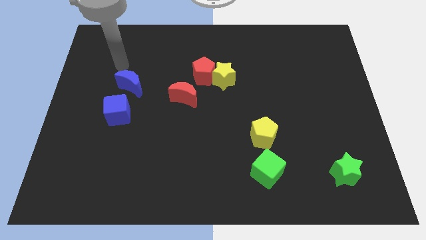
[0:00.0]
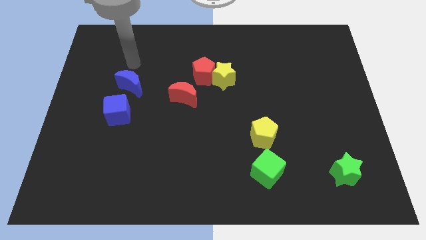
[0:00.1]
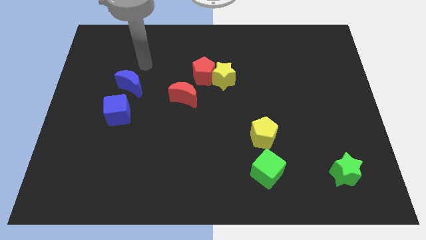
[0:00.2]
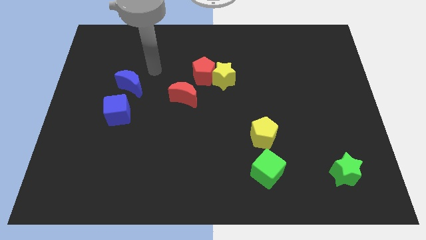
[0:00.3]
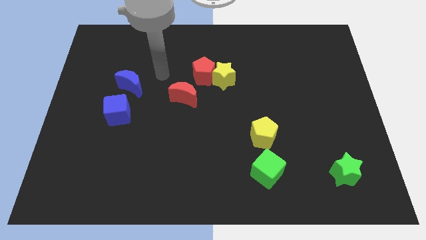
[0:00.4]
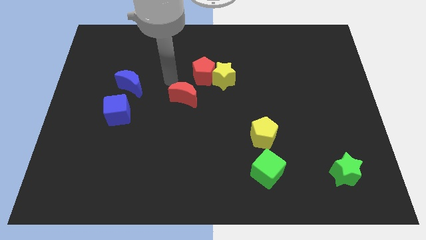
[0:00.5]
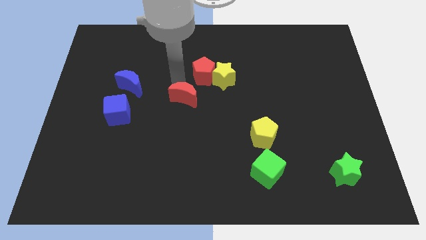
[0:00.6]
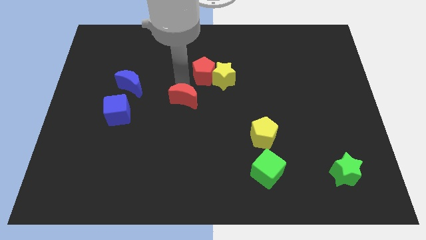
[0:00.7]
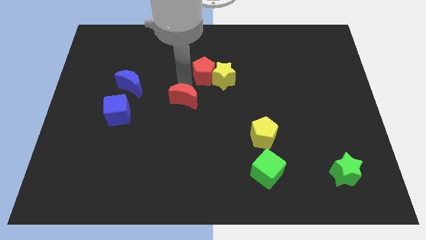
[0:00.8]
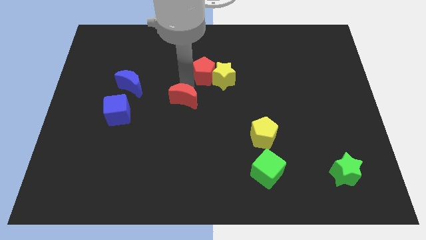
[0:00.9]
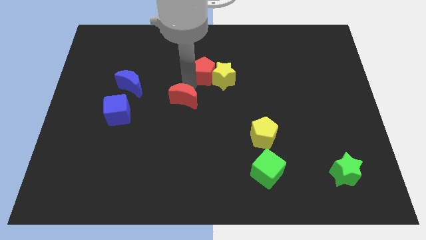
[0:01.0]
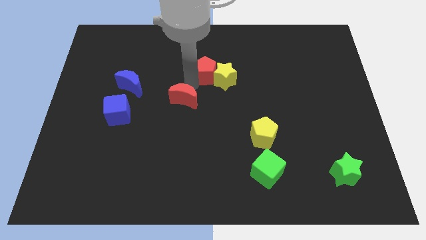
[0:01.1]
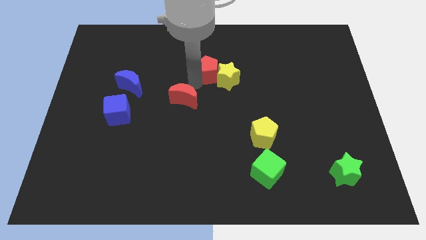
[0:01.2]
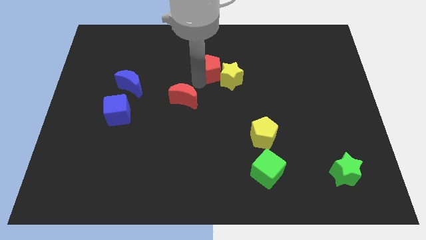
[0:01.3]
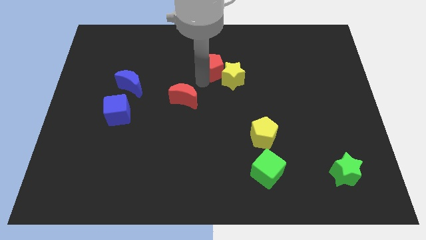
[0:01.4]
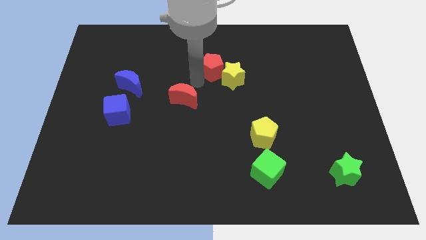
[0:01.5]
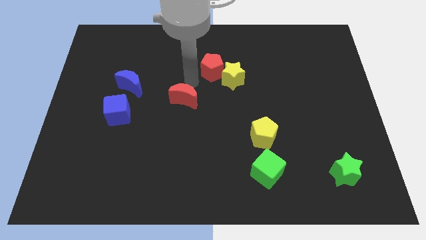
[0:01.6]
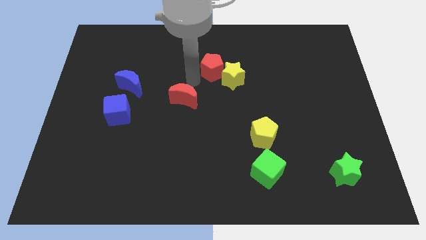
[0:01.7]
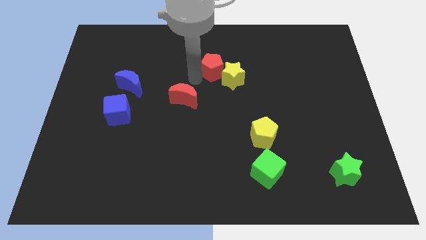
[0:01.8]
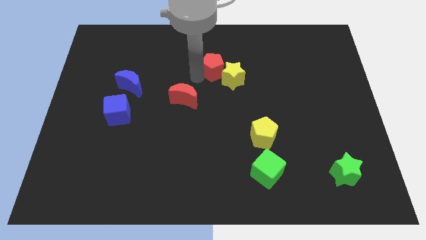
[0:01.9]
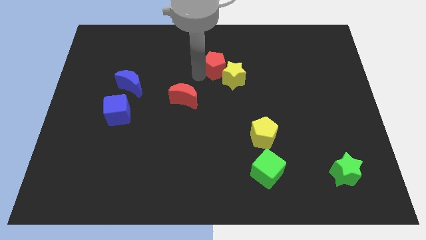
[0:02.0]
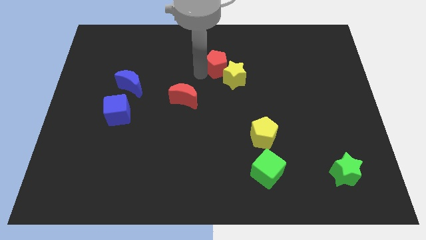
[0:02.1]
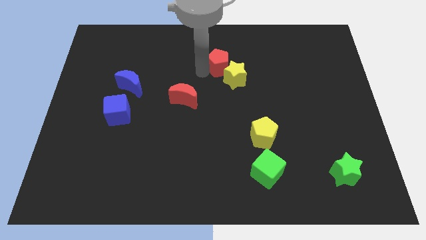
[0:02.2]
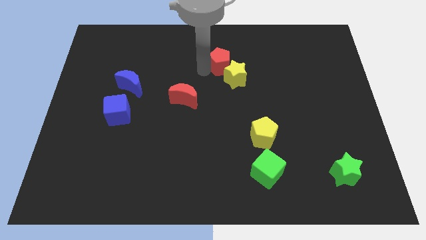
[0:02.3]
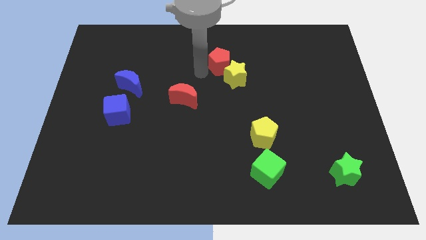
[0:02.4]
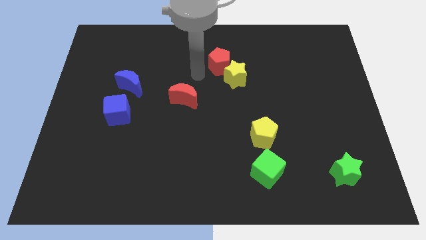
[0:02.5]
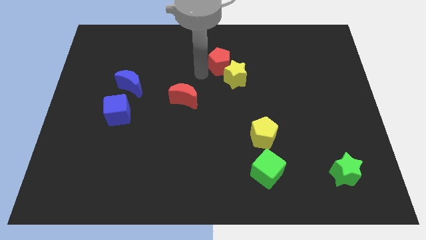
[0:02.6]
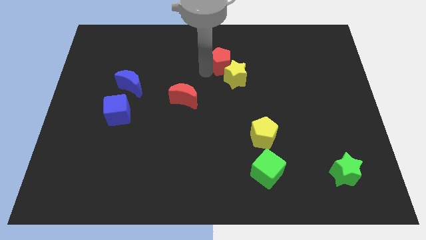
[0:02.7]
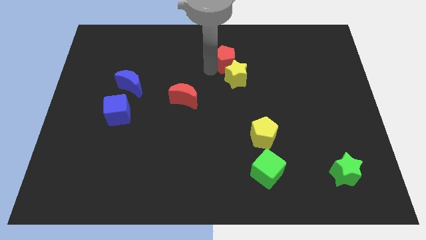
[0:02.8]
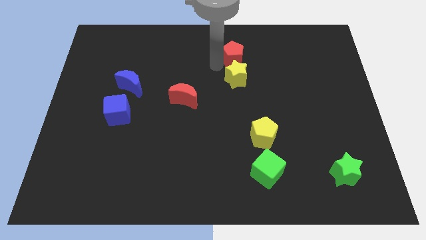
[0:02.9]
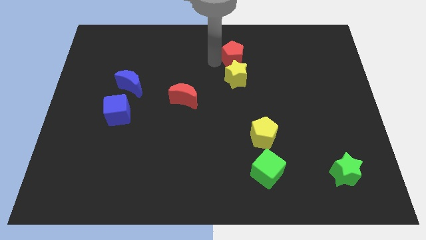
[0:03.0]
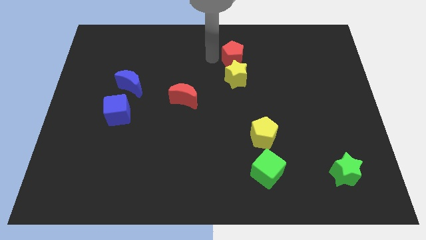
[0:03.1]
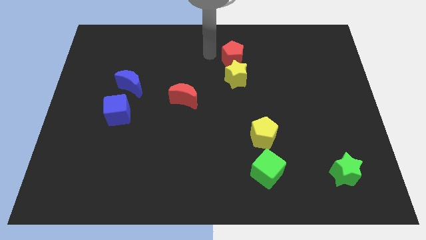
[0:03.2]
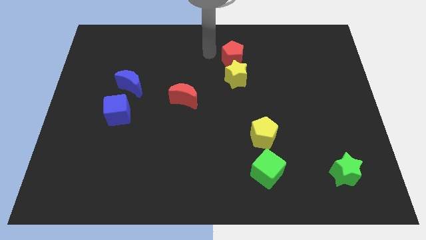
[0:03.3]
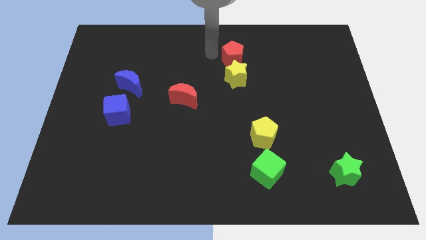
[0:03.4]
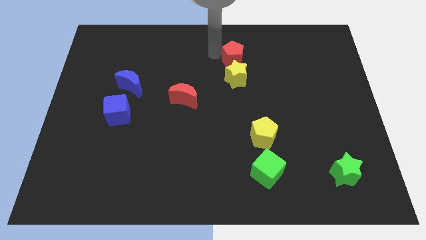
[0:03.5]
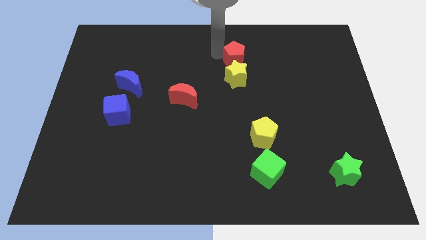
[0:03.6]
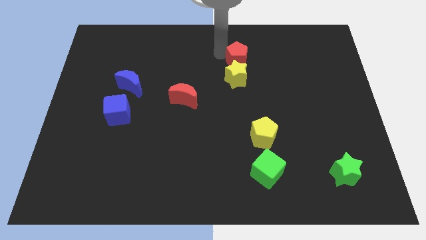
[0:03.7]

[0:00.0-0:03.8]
slide the red pentagon a bit right

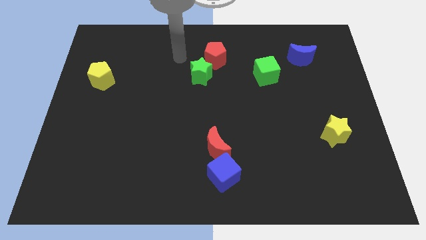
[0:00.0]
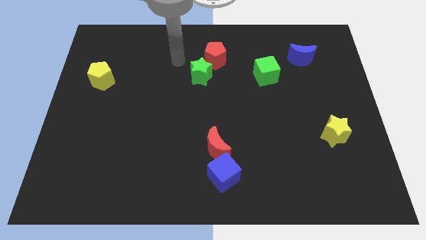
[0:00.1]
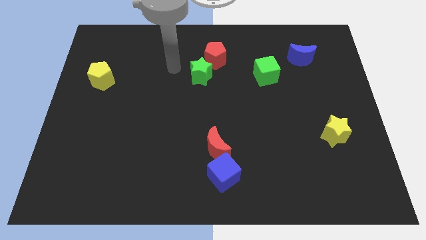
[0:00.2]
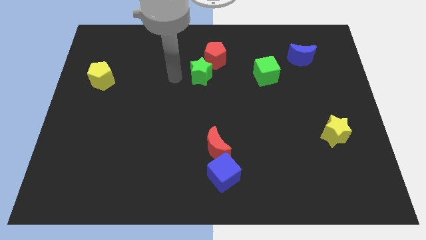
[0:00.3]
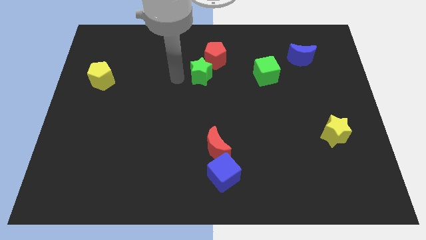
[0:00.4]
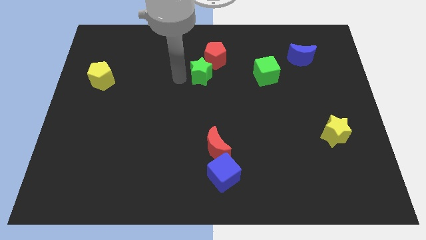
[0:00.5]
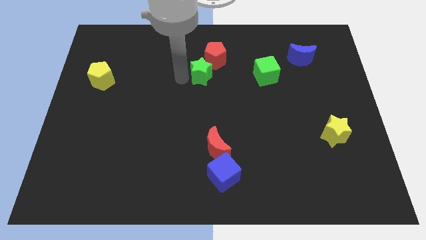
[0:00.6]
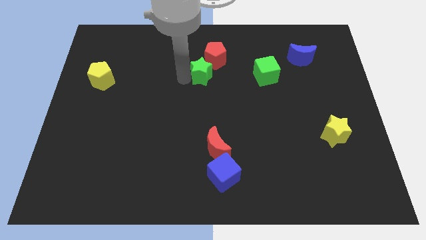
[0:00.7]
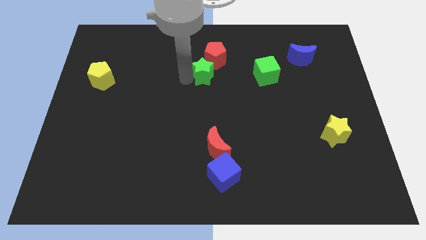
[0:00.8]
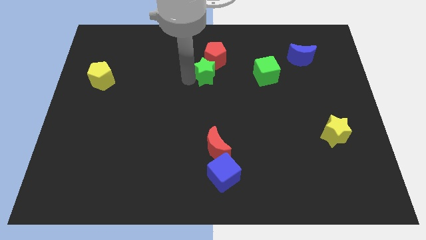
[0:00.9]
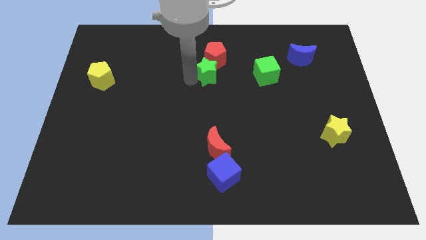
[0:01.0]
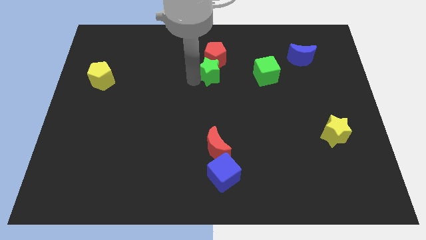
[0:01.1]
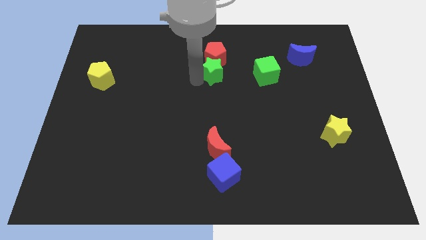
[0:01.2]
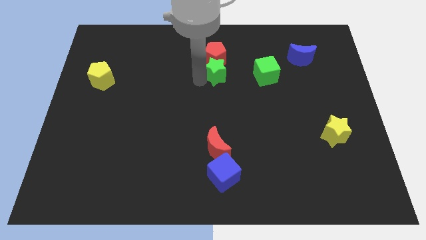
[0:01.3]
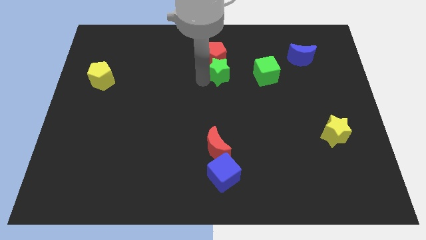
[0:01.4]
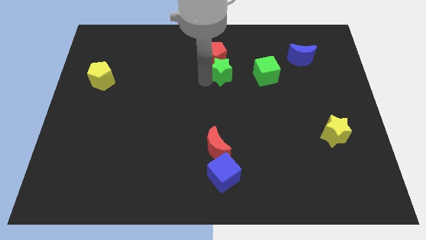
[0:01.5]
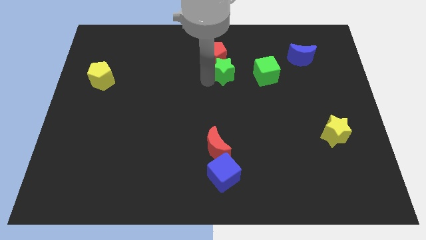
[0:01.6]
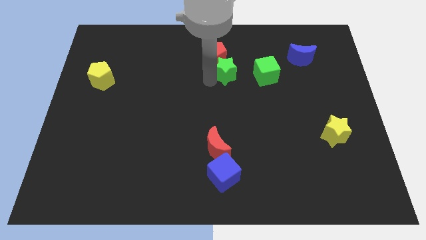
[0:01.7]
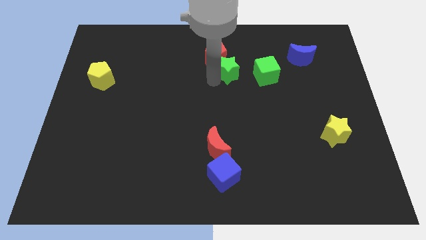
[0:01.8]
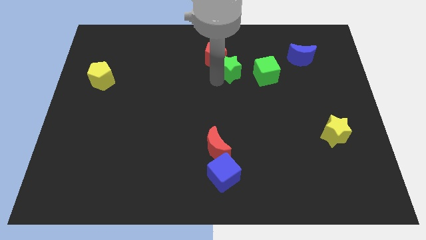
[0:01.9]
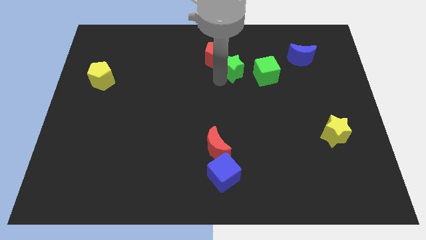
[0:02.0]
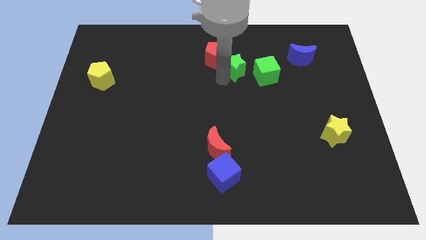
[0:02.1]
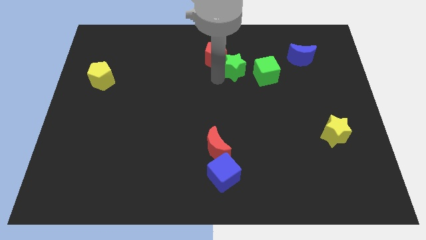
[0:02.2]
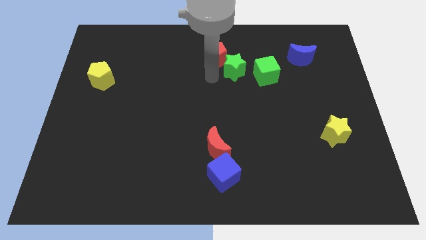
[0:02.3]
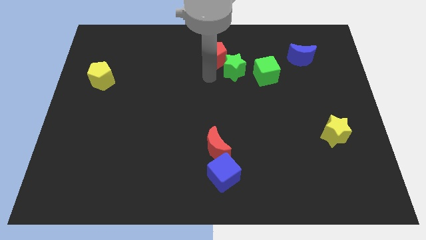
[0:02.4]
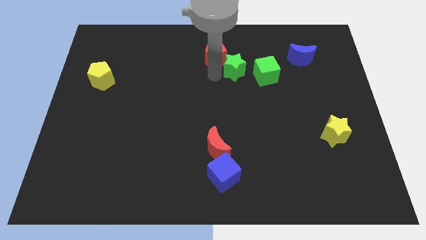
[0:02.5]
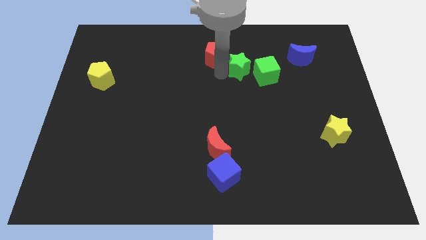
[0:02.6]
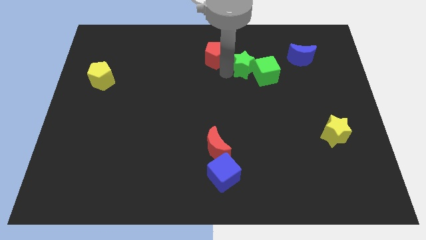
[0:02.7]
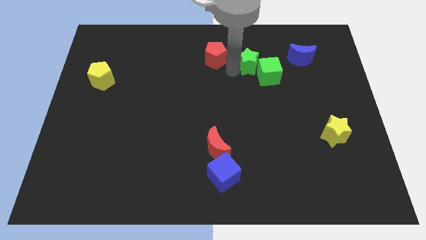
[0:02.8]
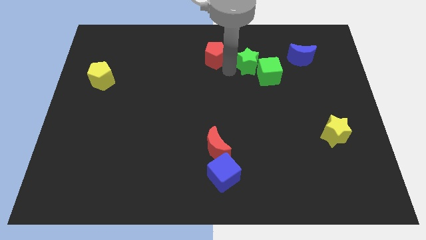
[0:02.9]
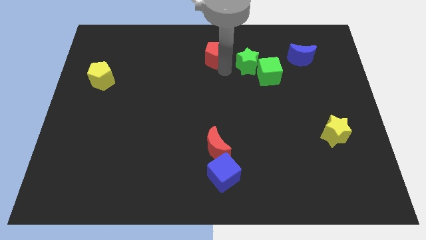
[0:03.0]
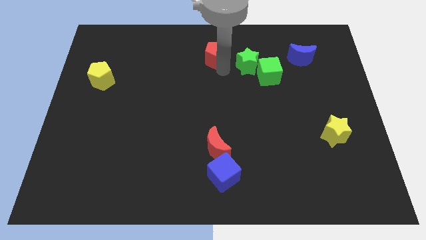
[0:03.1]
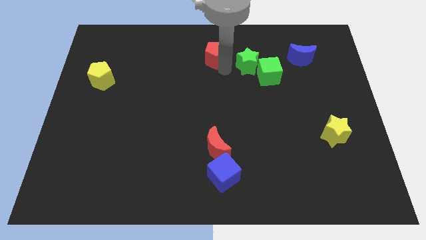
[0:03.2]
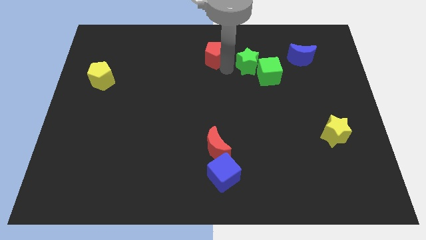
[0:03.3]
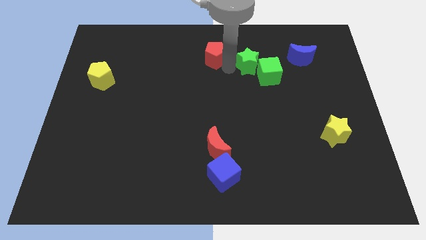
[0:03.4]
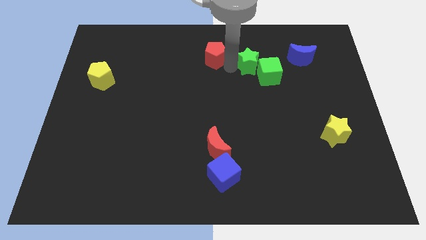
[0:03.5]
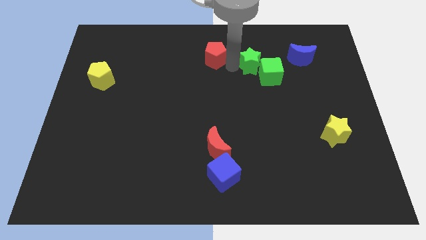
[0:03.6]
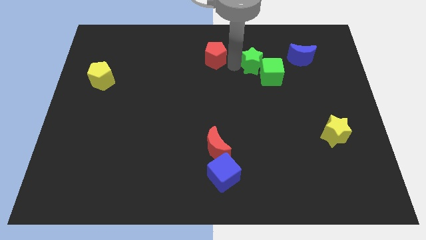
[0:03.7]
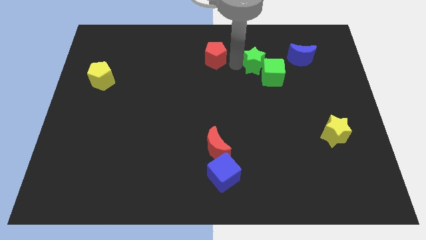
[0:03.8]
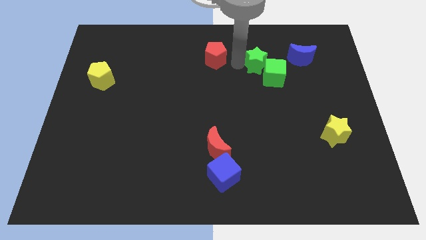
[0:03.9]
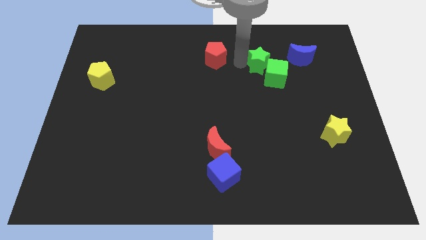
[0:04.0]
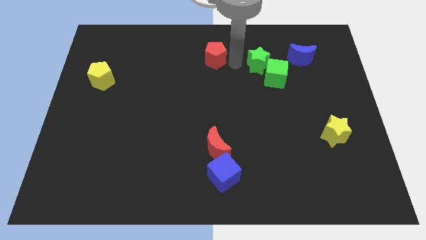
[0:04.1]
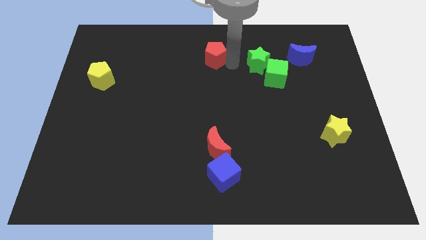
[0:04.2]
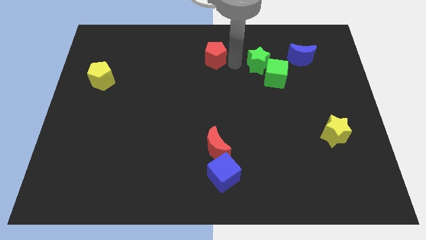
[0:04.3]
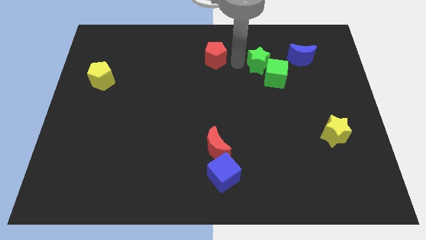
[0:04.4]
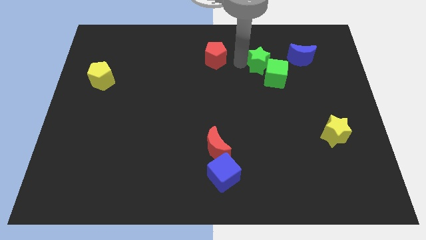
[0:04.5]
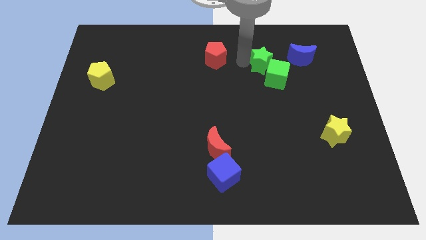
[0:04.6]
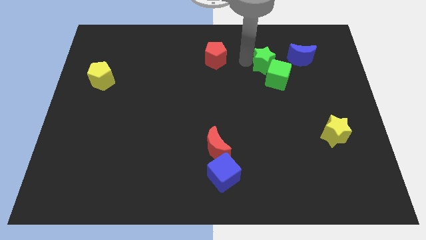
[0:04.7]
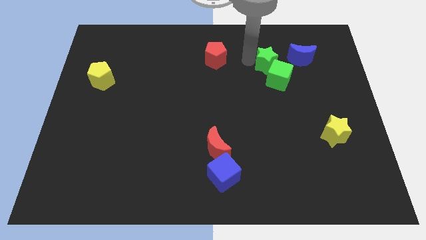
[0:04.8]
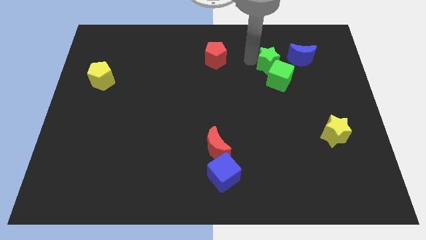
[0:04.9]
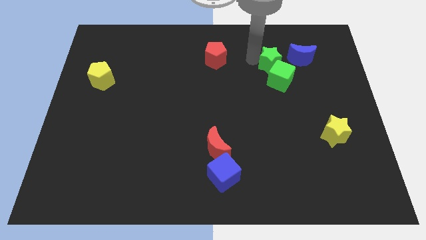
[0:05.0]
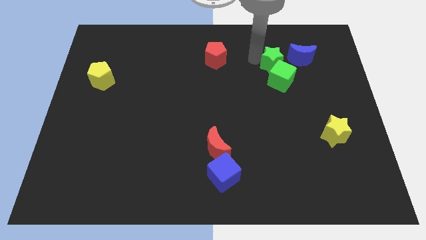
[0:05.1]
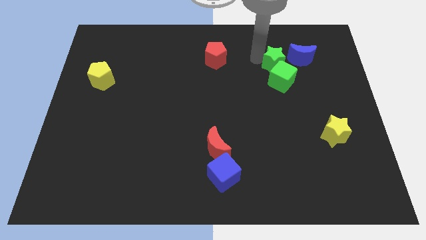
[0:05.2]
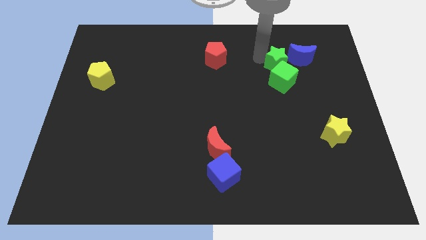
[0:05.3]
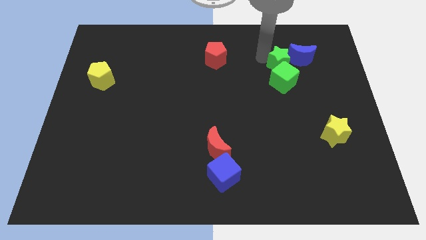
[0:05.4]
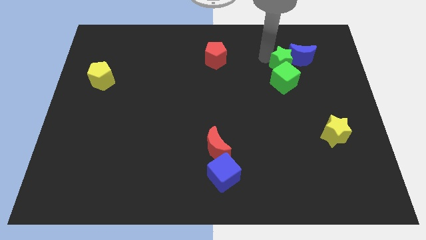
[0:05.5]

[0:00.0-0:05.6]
move the green star right
